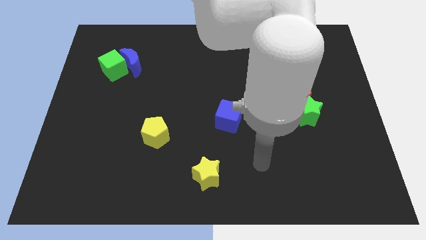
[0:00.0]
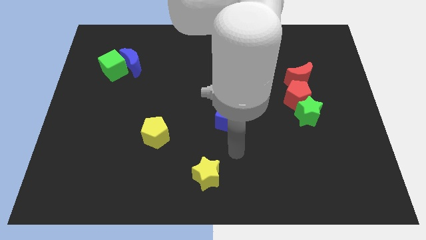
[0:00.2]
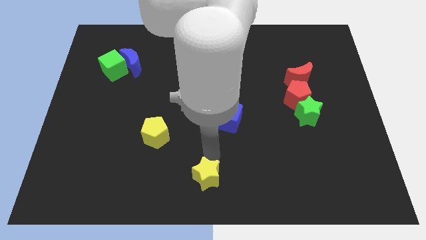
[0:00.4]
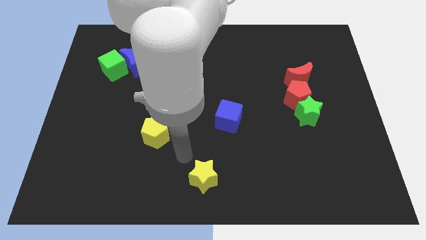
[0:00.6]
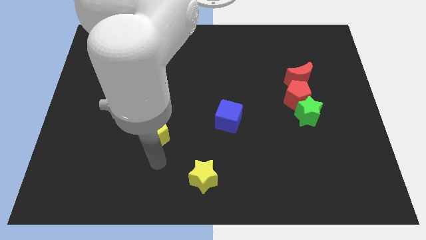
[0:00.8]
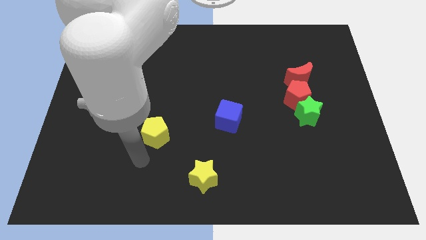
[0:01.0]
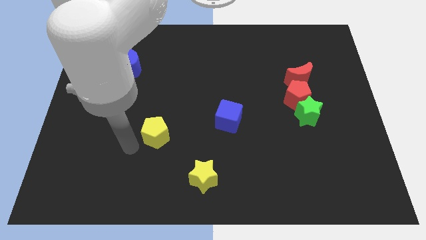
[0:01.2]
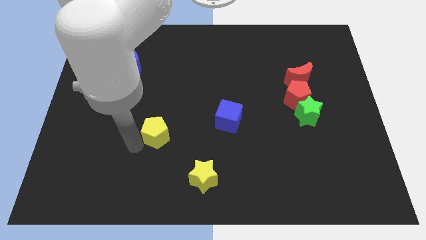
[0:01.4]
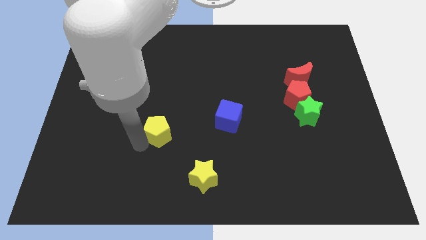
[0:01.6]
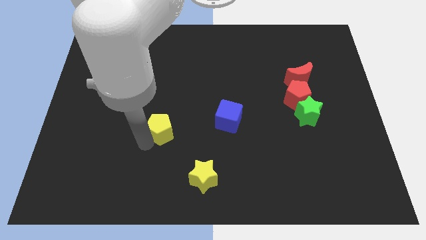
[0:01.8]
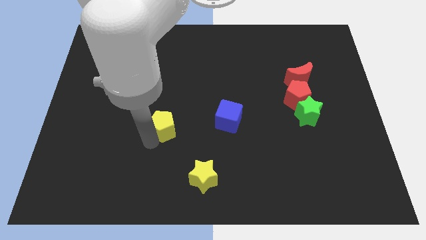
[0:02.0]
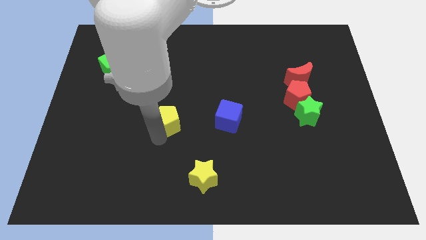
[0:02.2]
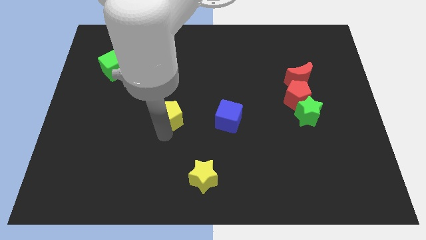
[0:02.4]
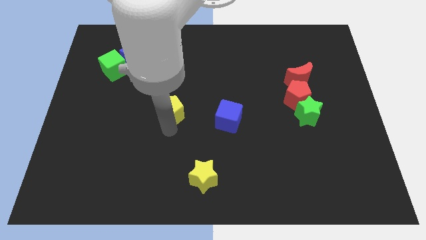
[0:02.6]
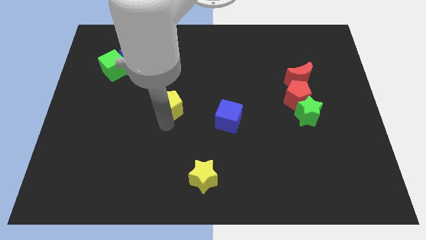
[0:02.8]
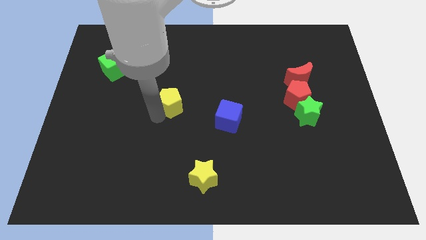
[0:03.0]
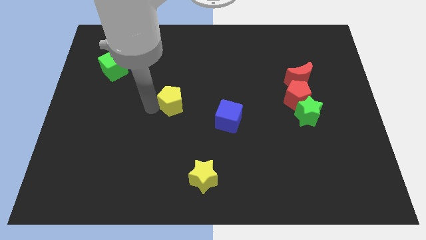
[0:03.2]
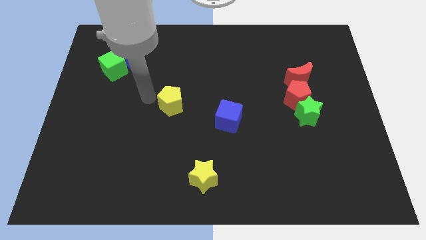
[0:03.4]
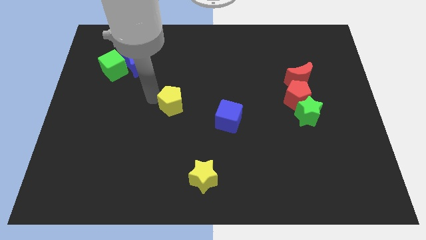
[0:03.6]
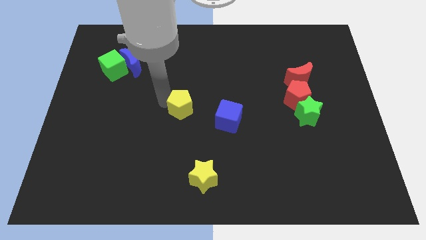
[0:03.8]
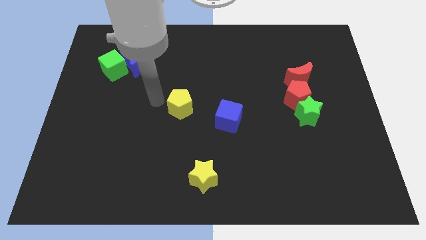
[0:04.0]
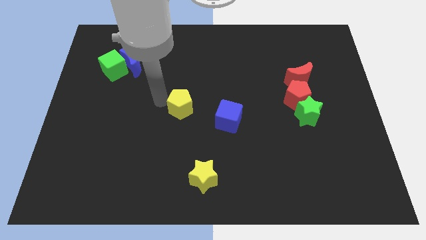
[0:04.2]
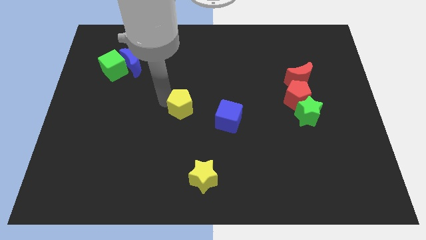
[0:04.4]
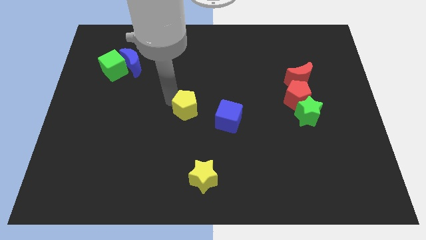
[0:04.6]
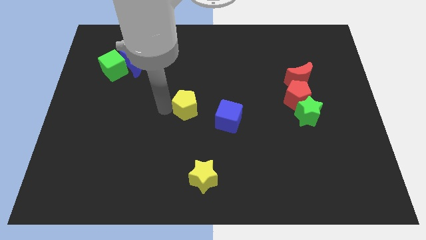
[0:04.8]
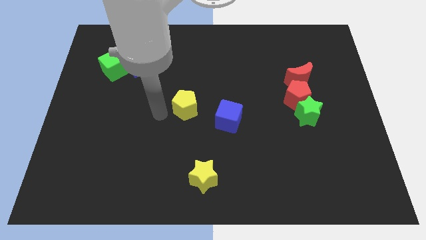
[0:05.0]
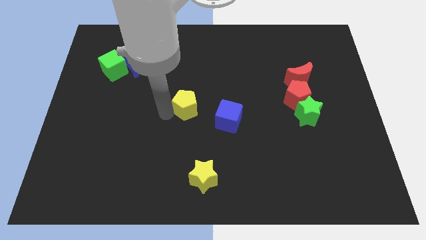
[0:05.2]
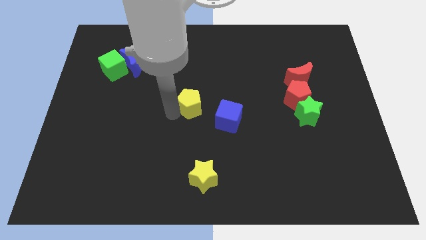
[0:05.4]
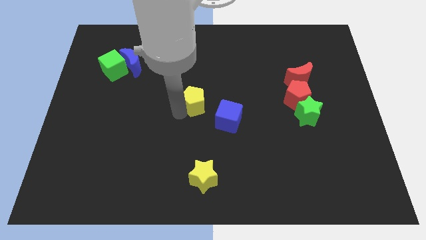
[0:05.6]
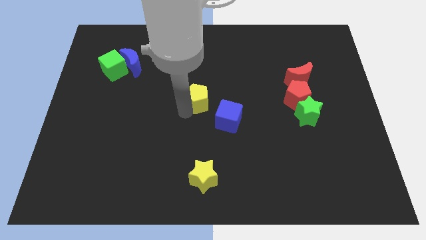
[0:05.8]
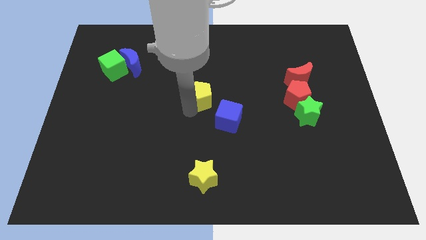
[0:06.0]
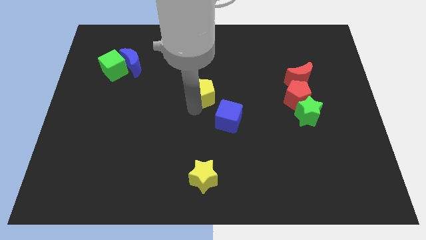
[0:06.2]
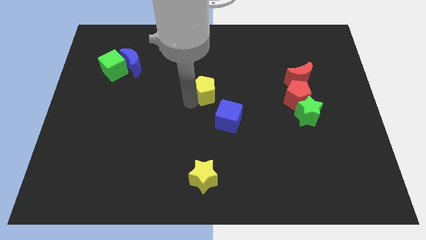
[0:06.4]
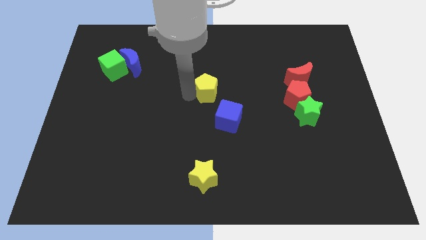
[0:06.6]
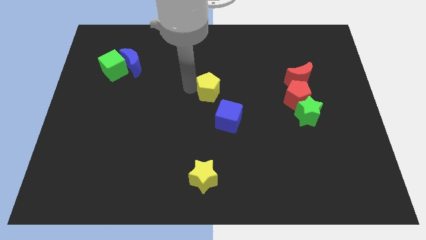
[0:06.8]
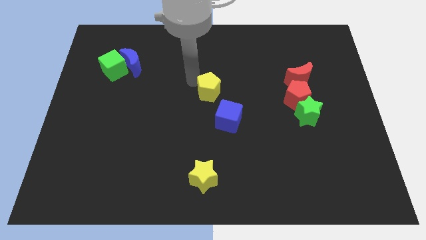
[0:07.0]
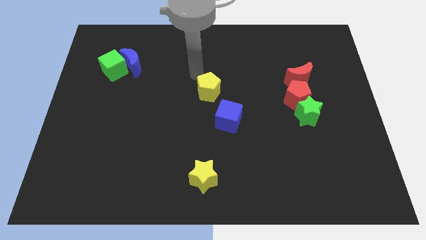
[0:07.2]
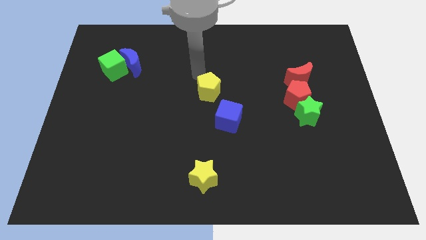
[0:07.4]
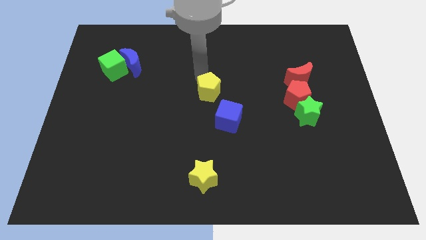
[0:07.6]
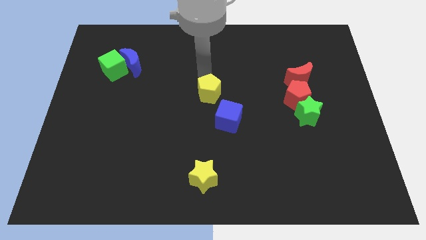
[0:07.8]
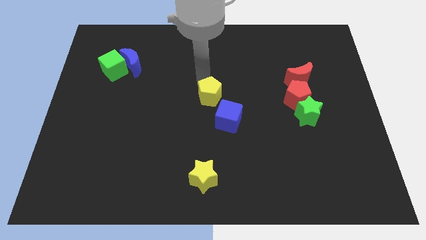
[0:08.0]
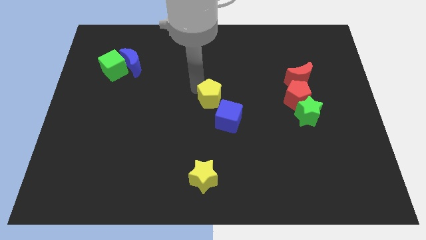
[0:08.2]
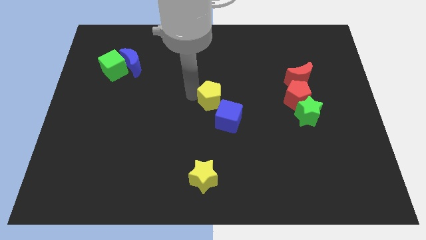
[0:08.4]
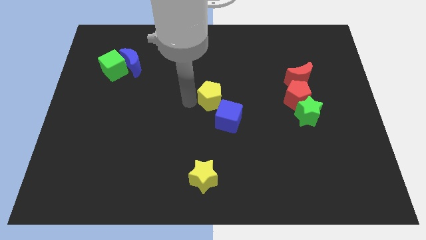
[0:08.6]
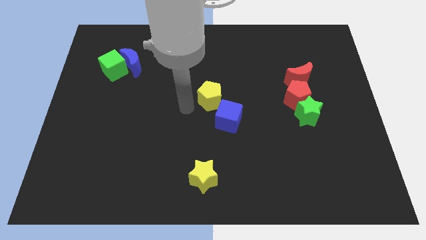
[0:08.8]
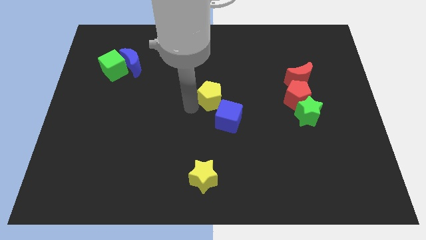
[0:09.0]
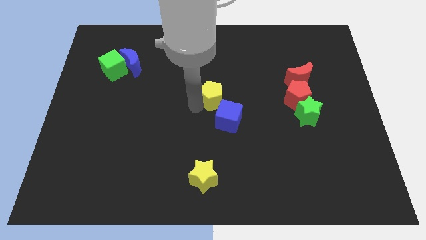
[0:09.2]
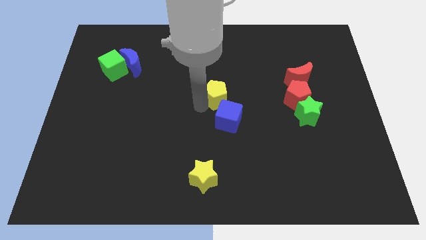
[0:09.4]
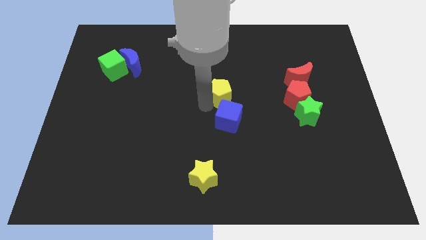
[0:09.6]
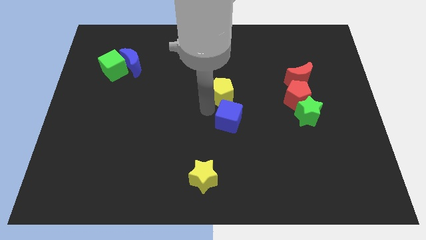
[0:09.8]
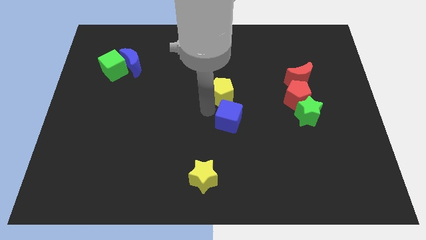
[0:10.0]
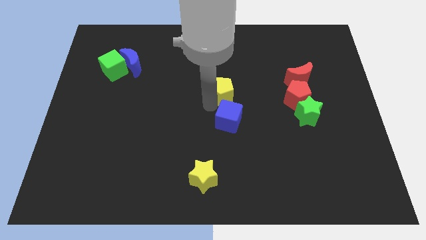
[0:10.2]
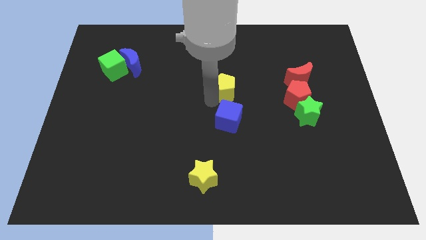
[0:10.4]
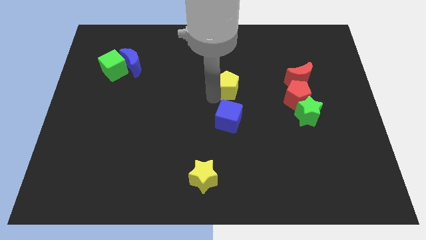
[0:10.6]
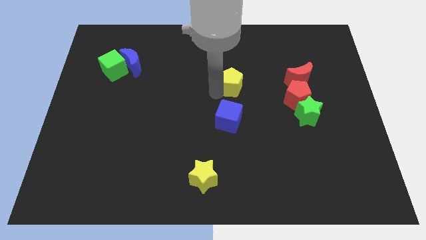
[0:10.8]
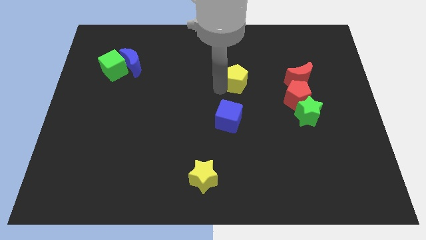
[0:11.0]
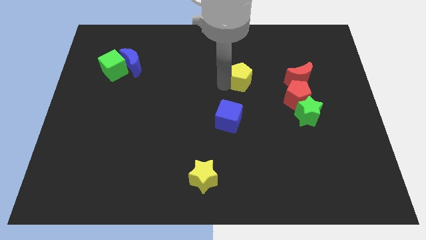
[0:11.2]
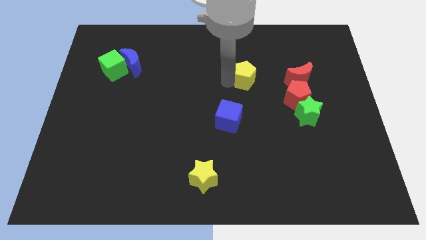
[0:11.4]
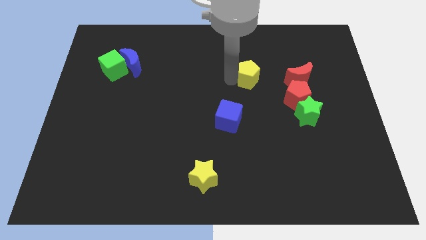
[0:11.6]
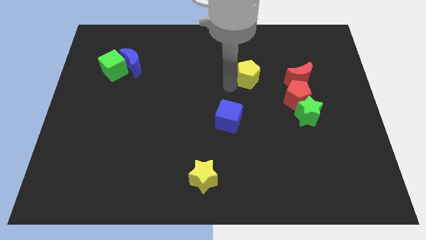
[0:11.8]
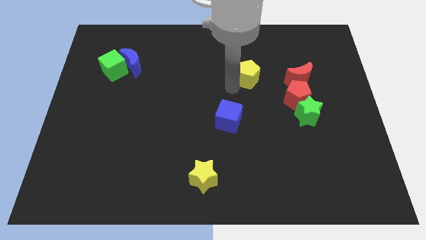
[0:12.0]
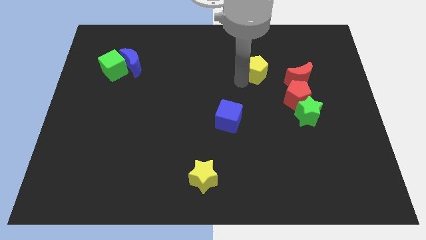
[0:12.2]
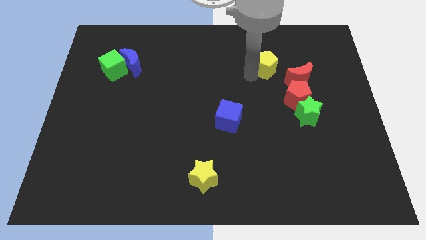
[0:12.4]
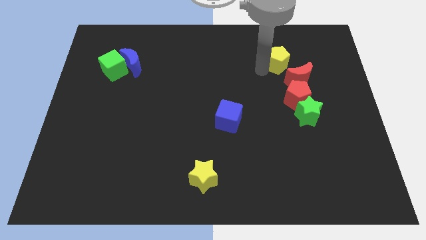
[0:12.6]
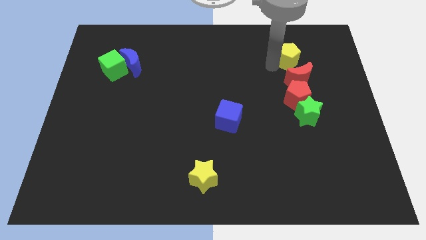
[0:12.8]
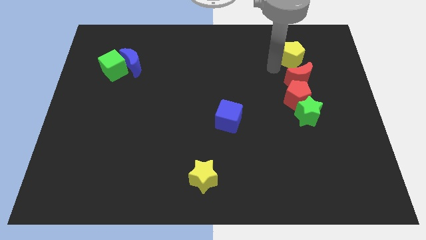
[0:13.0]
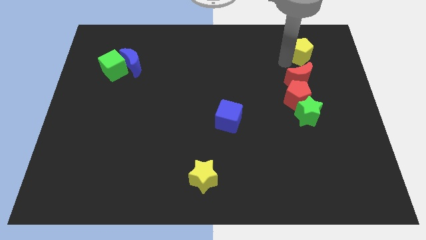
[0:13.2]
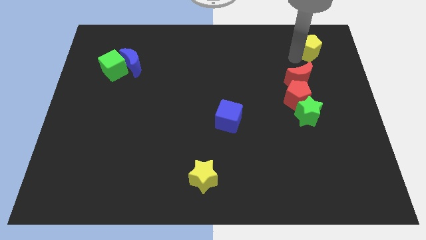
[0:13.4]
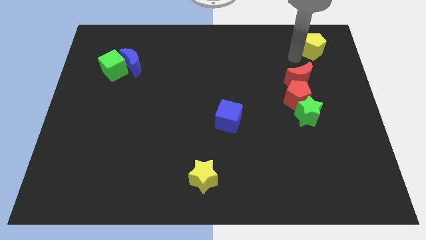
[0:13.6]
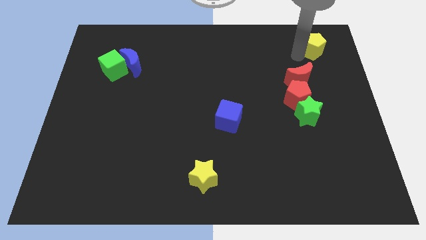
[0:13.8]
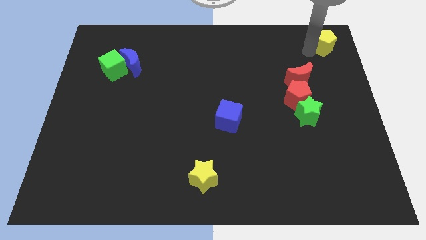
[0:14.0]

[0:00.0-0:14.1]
push the yellow pentagon to the top right of the board
